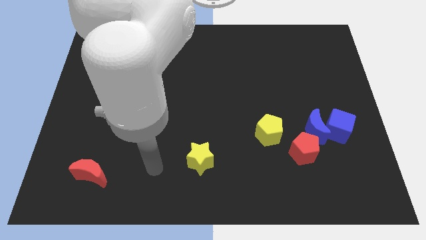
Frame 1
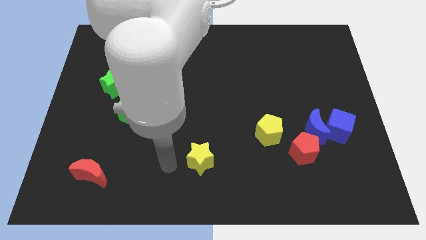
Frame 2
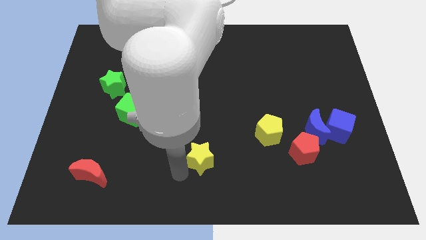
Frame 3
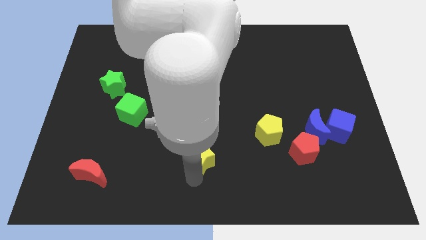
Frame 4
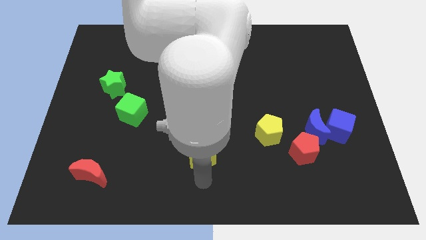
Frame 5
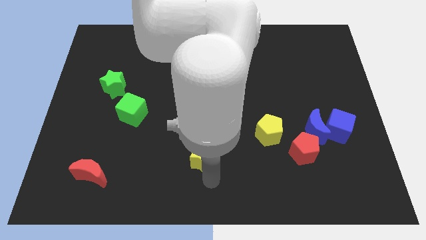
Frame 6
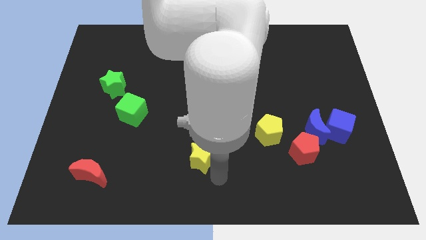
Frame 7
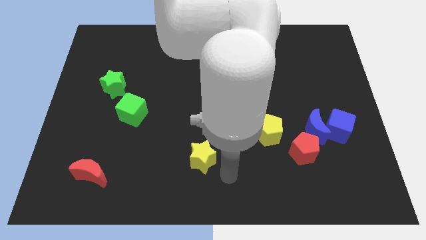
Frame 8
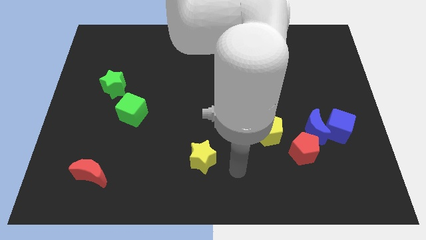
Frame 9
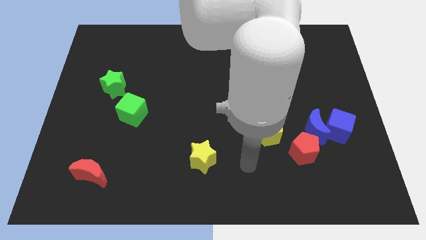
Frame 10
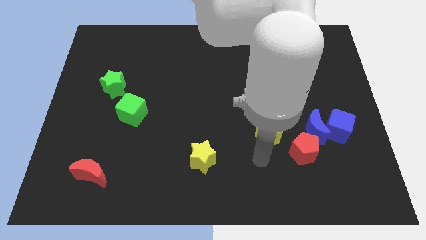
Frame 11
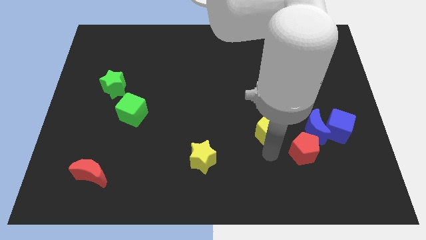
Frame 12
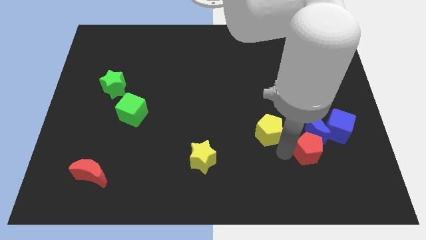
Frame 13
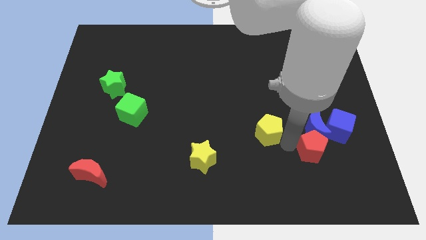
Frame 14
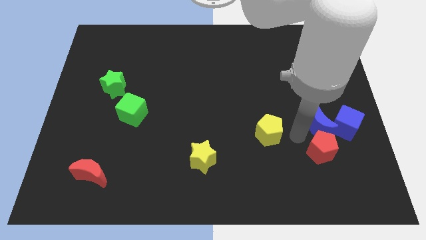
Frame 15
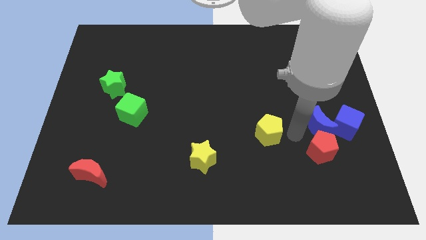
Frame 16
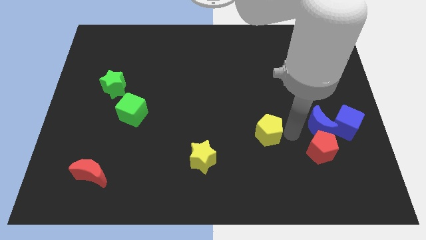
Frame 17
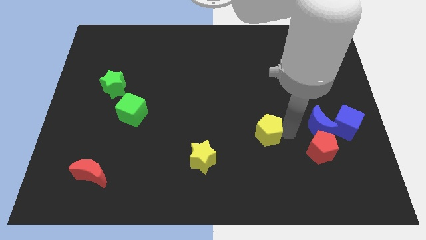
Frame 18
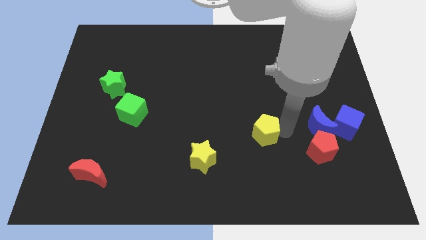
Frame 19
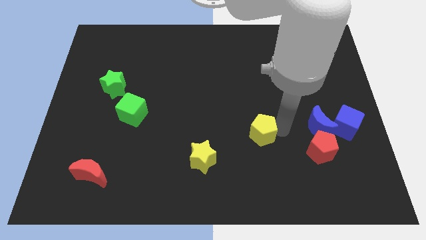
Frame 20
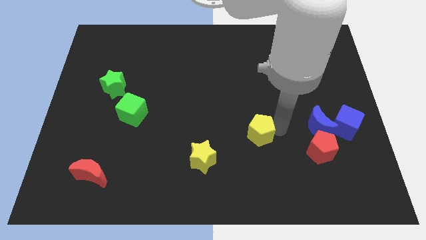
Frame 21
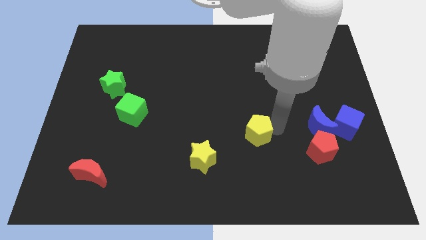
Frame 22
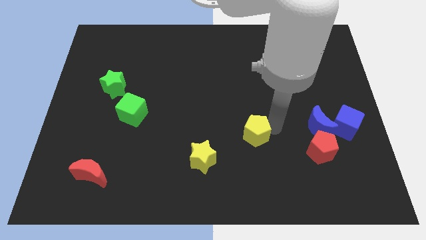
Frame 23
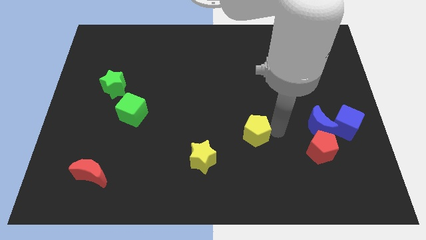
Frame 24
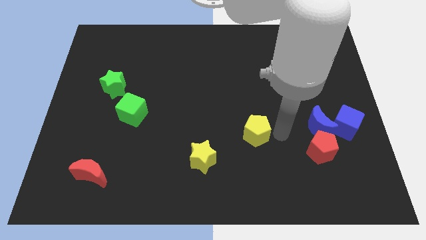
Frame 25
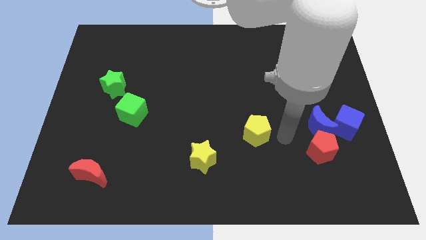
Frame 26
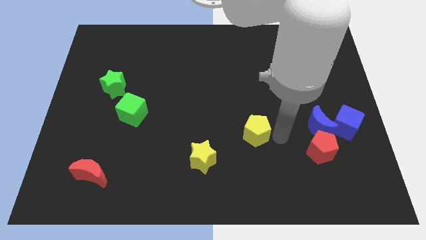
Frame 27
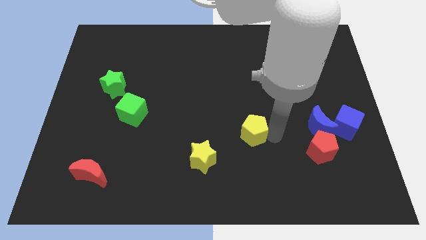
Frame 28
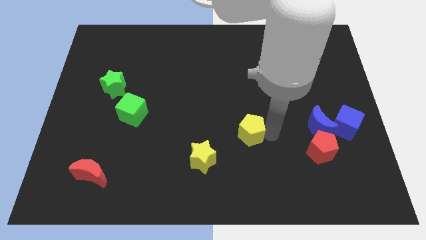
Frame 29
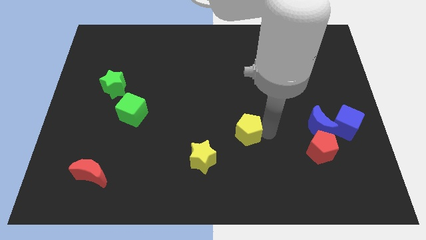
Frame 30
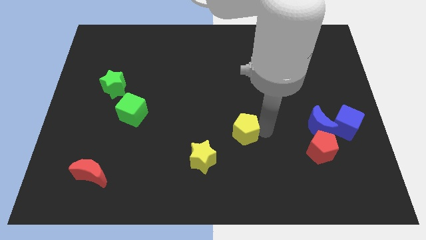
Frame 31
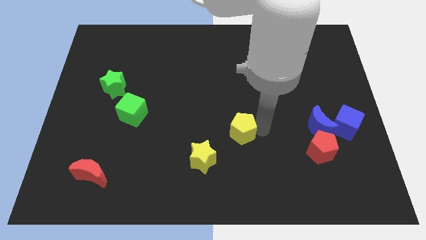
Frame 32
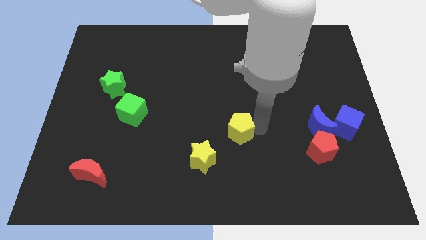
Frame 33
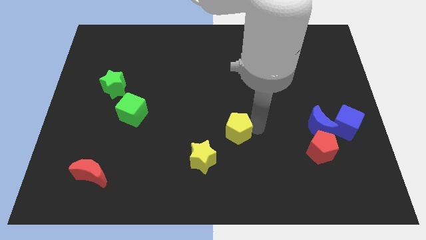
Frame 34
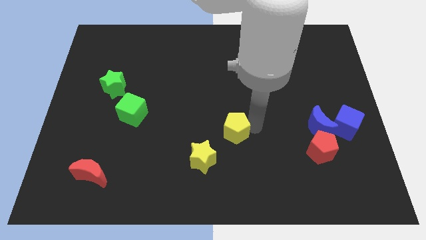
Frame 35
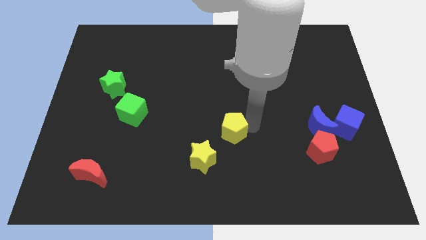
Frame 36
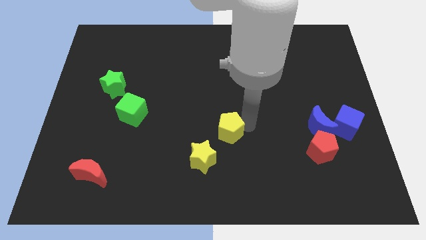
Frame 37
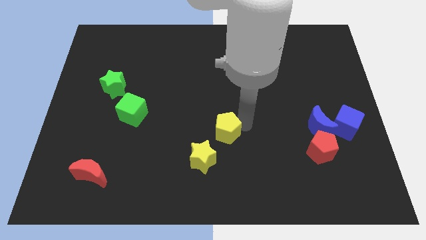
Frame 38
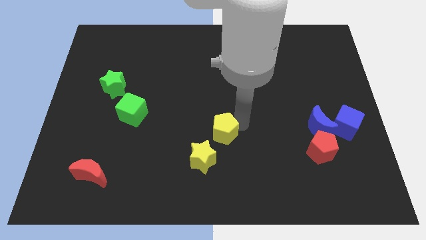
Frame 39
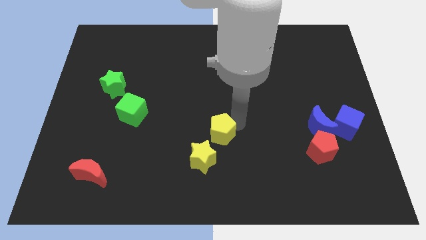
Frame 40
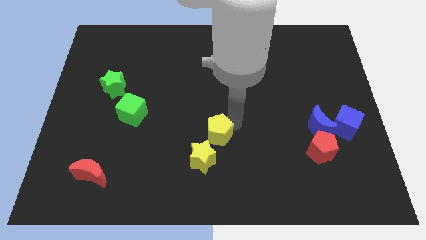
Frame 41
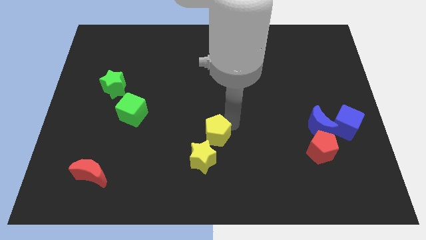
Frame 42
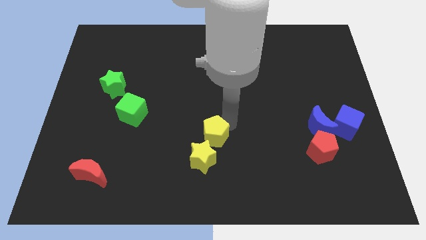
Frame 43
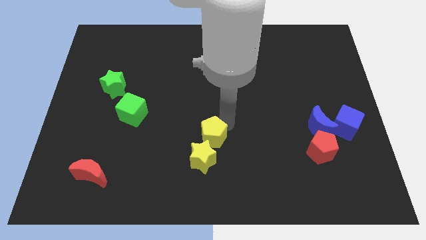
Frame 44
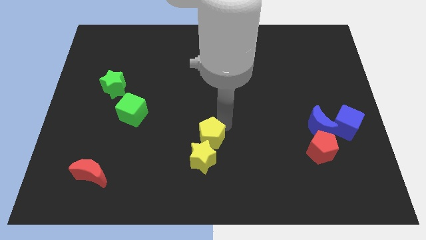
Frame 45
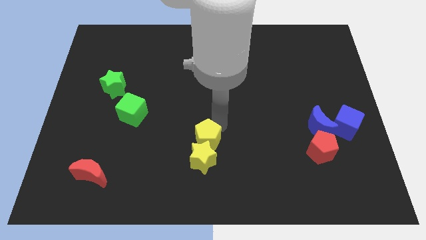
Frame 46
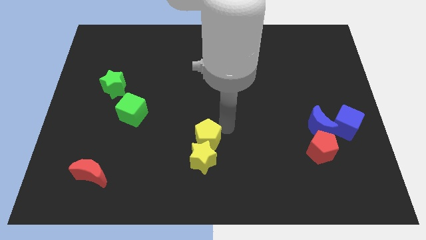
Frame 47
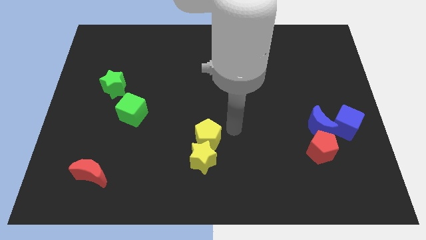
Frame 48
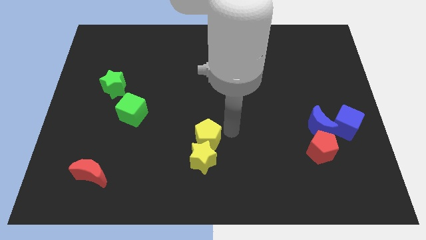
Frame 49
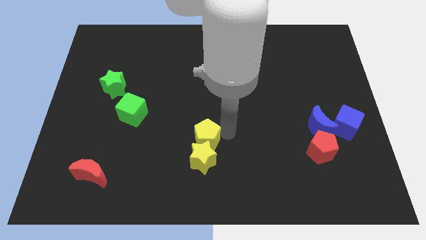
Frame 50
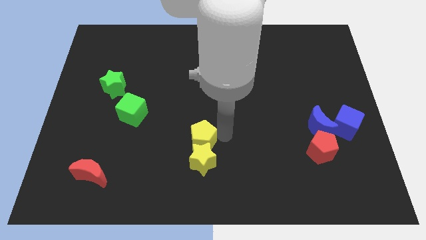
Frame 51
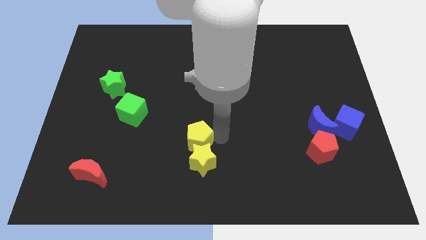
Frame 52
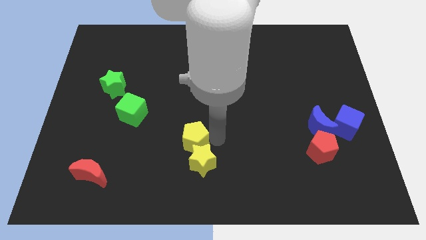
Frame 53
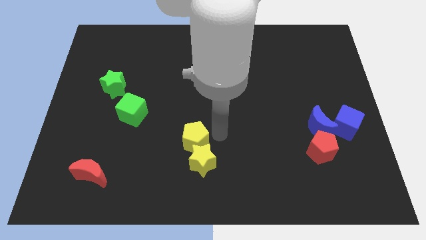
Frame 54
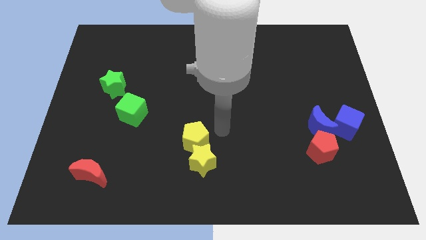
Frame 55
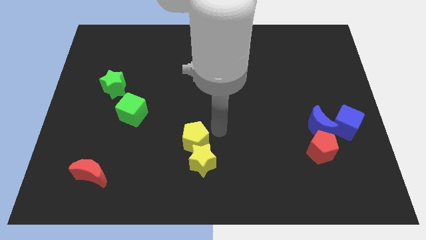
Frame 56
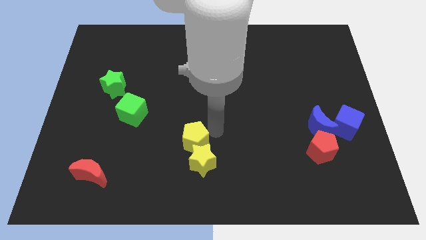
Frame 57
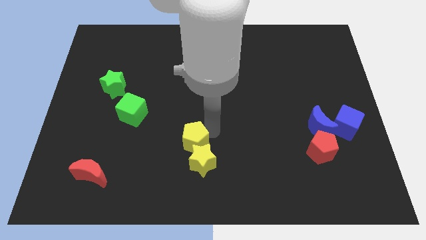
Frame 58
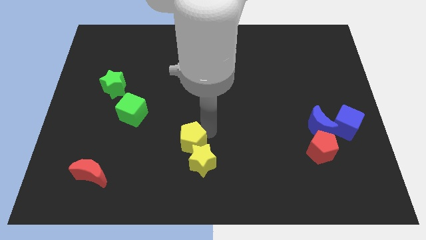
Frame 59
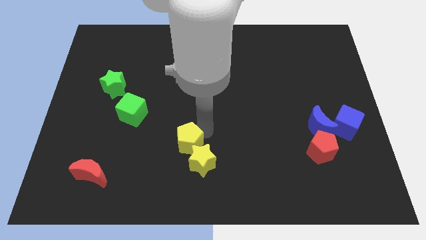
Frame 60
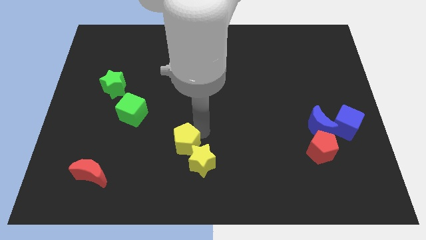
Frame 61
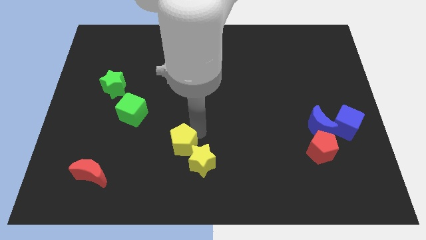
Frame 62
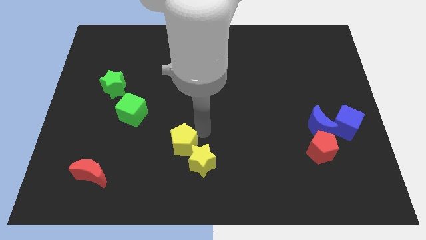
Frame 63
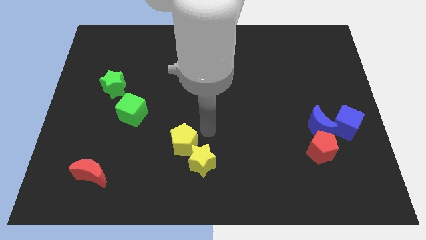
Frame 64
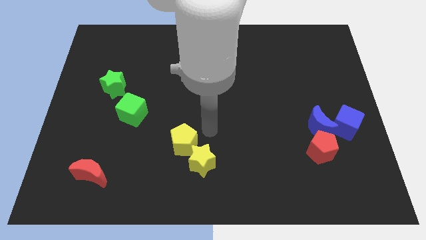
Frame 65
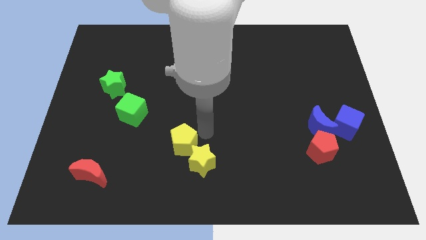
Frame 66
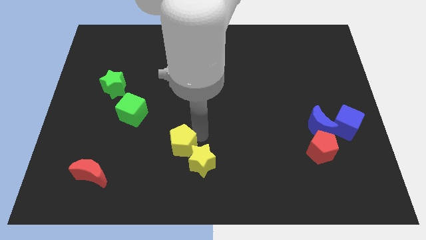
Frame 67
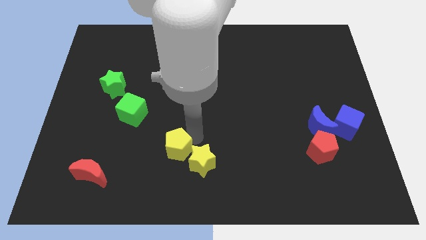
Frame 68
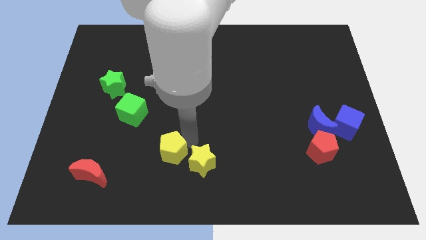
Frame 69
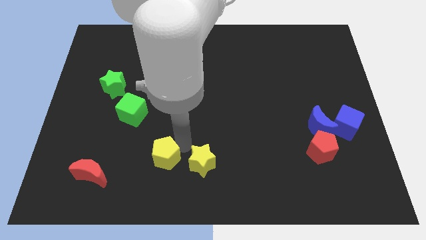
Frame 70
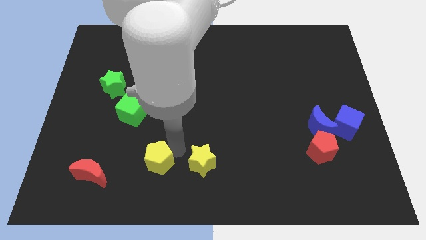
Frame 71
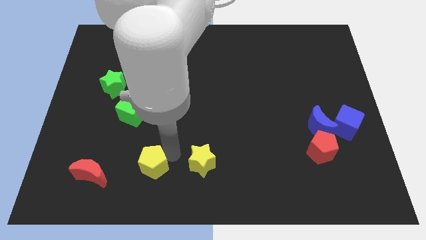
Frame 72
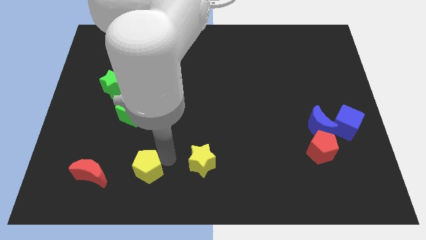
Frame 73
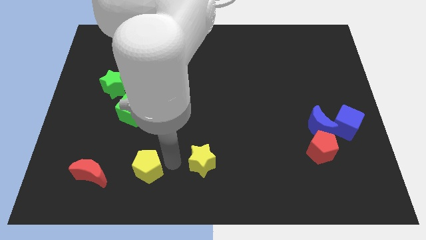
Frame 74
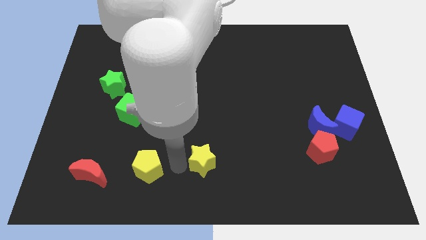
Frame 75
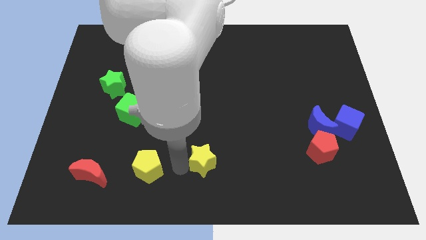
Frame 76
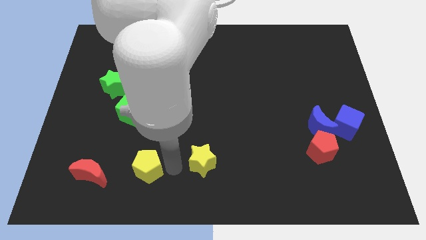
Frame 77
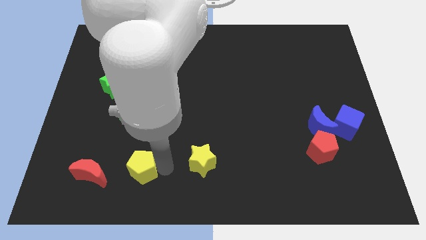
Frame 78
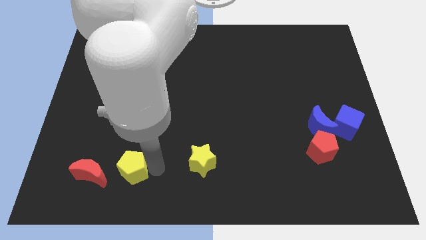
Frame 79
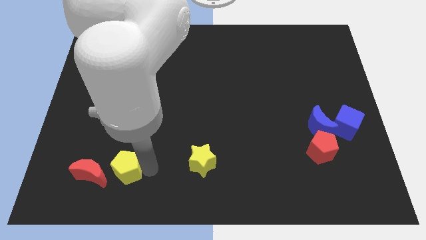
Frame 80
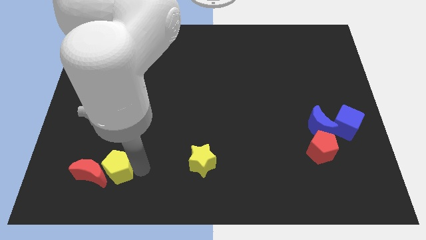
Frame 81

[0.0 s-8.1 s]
push the yellow pentagon to the red moon
